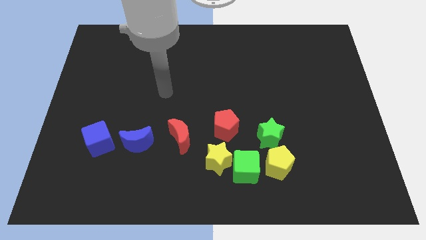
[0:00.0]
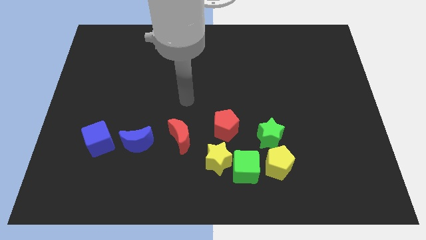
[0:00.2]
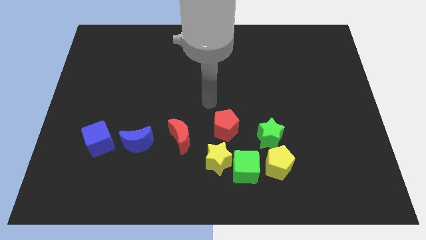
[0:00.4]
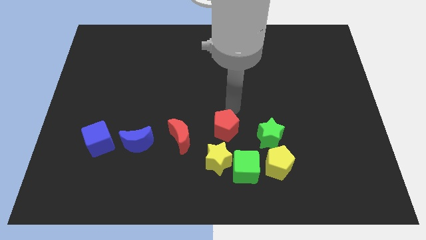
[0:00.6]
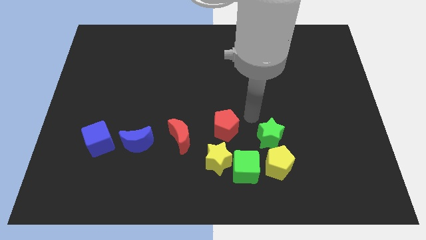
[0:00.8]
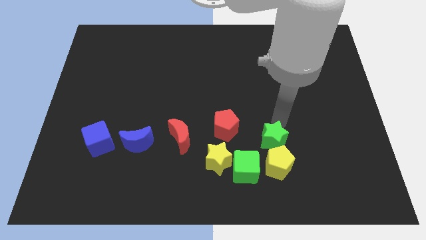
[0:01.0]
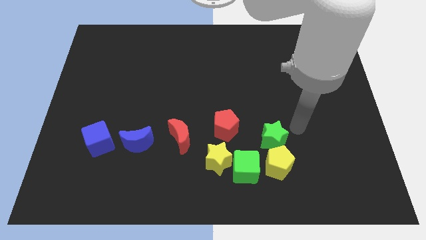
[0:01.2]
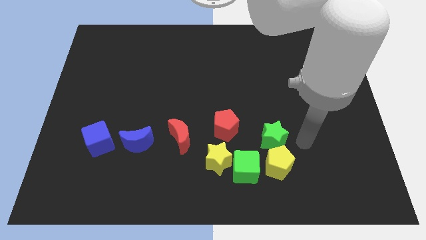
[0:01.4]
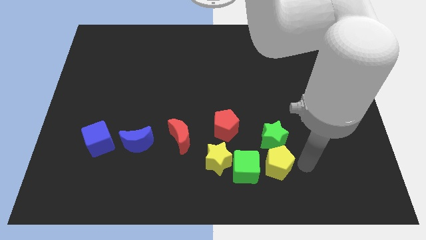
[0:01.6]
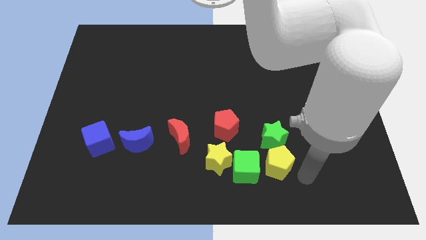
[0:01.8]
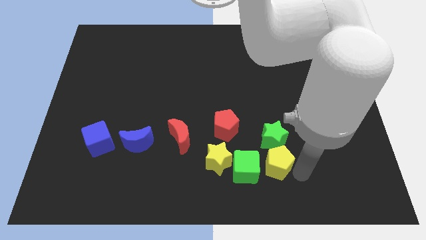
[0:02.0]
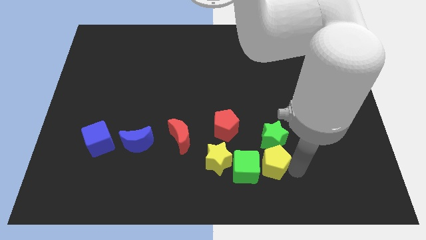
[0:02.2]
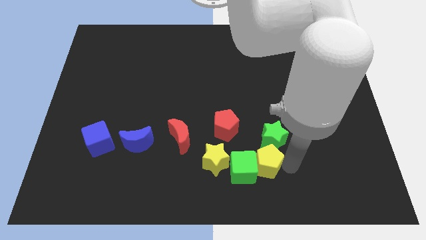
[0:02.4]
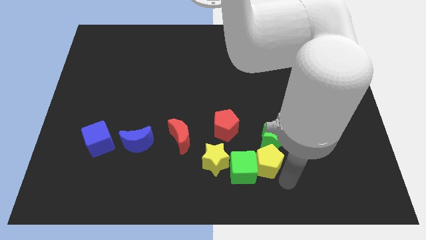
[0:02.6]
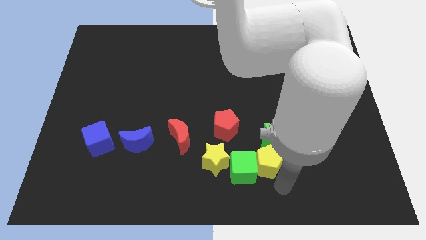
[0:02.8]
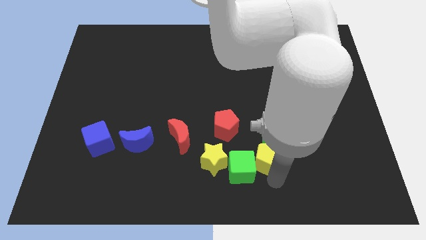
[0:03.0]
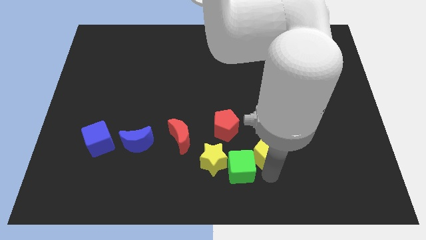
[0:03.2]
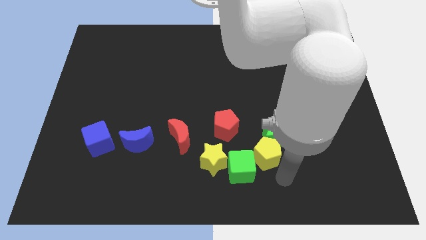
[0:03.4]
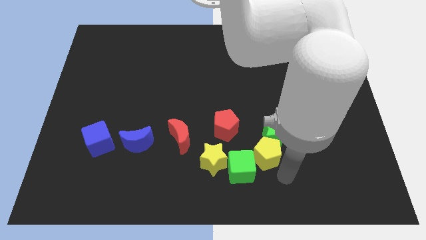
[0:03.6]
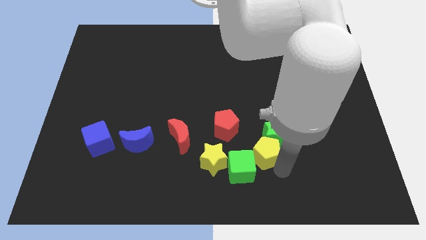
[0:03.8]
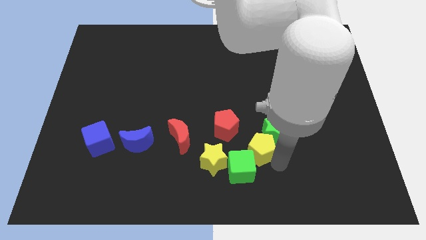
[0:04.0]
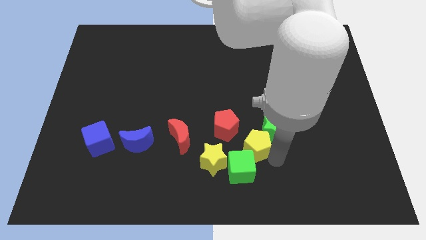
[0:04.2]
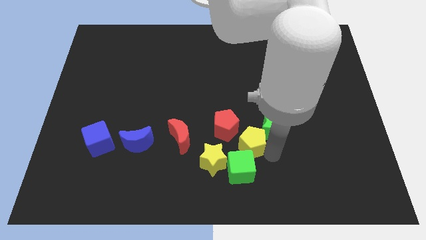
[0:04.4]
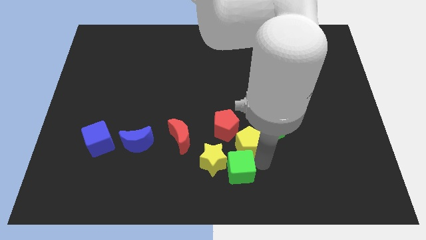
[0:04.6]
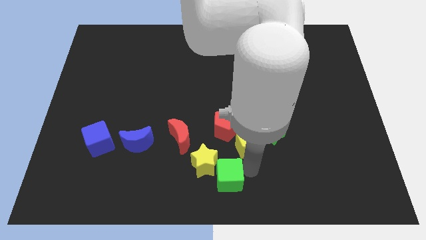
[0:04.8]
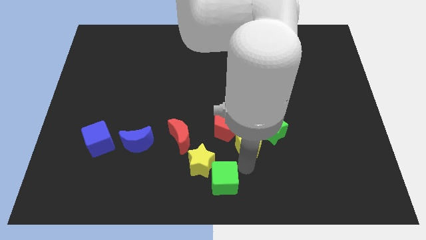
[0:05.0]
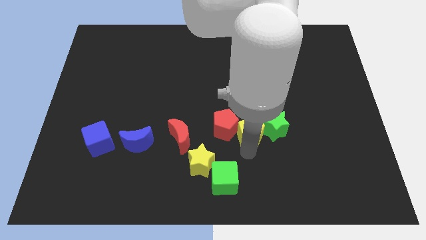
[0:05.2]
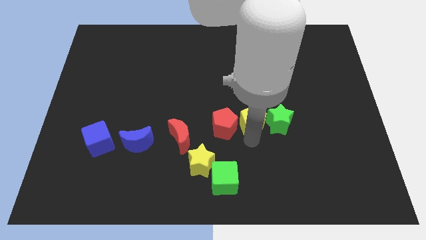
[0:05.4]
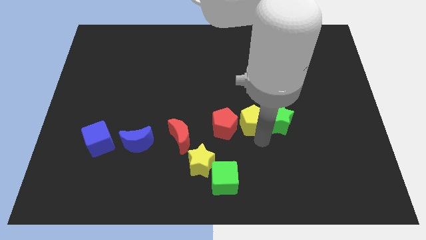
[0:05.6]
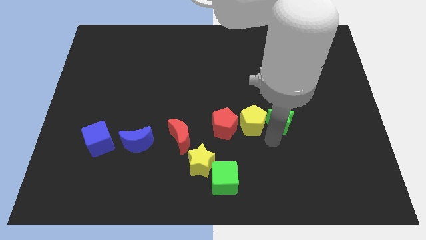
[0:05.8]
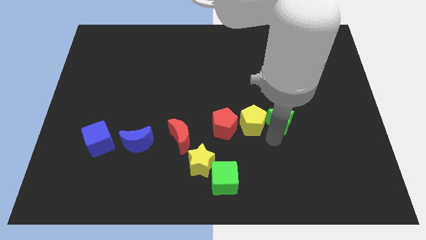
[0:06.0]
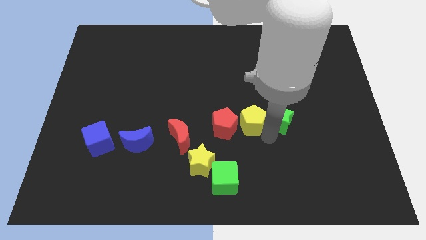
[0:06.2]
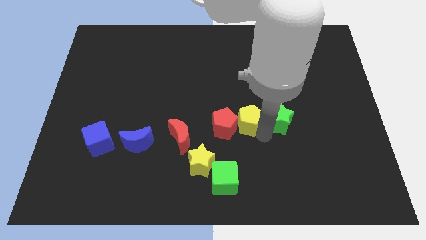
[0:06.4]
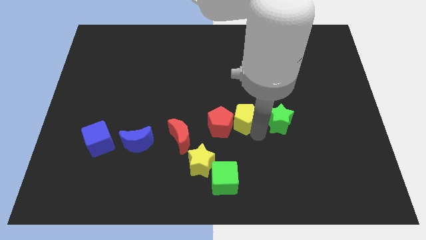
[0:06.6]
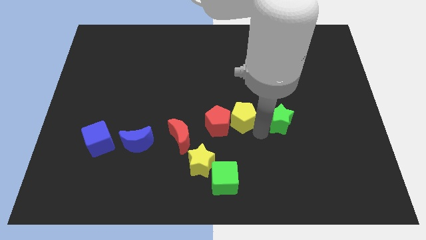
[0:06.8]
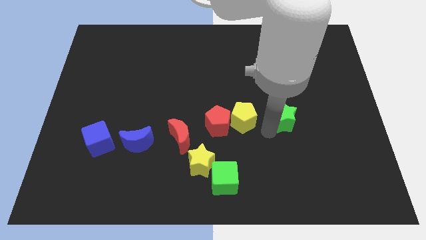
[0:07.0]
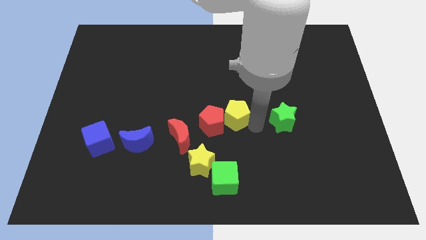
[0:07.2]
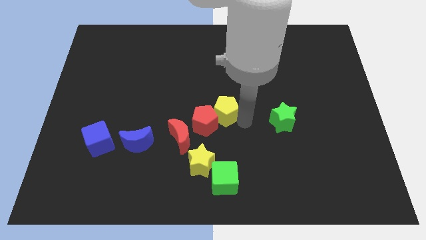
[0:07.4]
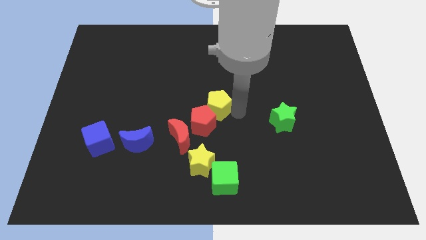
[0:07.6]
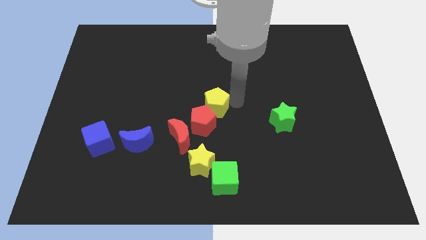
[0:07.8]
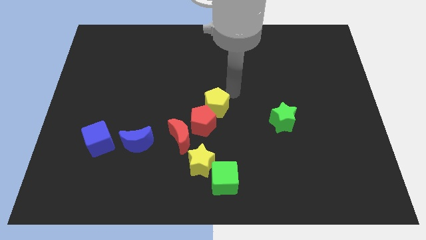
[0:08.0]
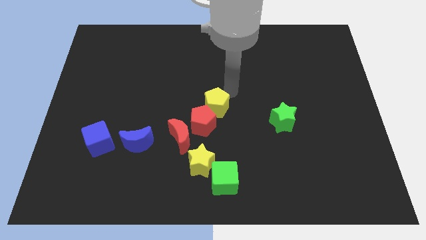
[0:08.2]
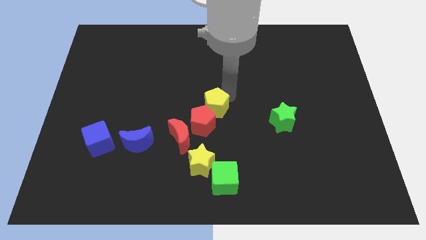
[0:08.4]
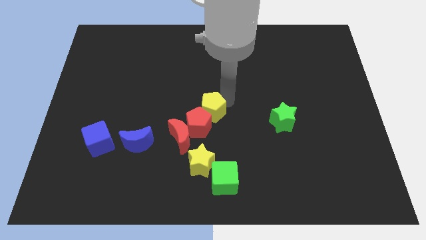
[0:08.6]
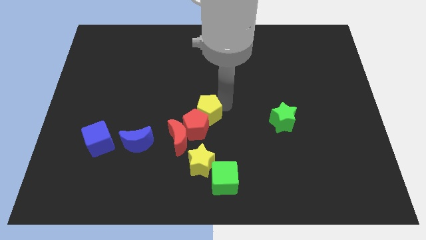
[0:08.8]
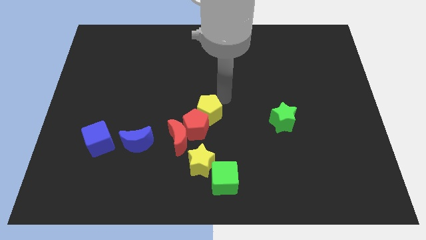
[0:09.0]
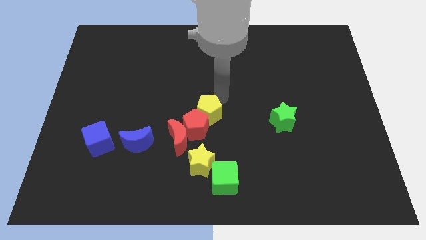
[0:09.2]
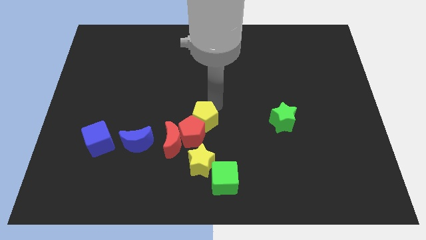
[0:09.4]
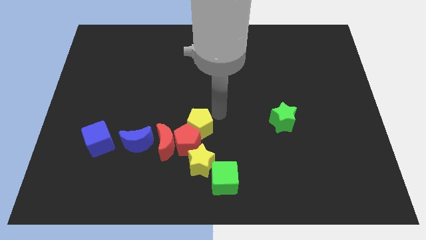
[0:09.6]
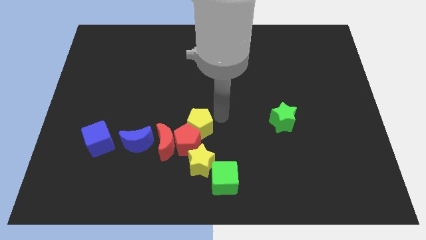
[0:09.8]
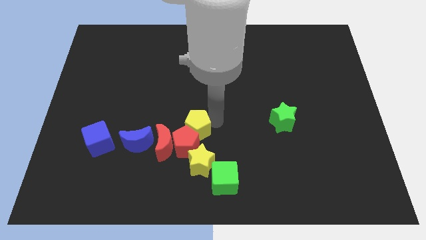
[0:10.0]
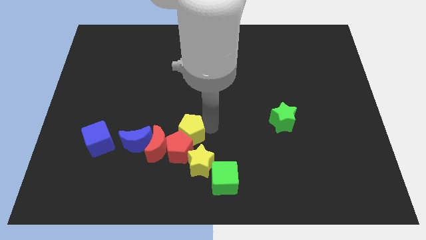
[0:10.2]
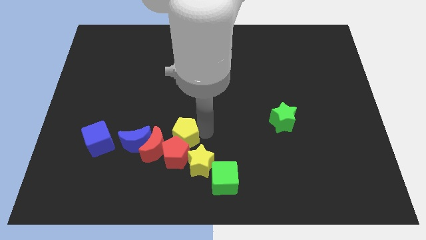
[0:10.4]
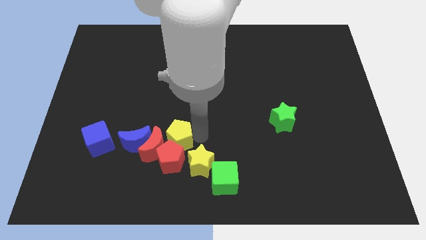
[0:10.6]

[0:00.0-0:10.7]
put the yellow pentagon close to the red moon

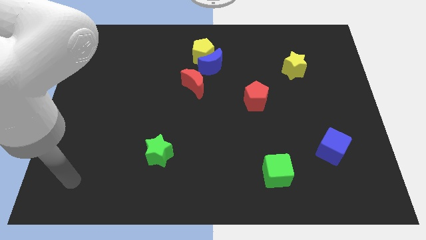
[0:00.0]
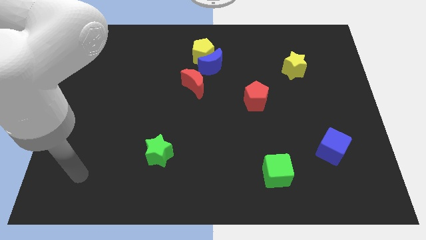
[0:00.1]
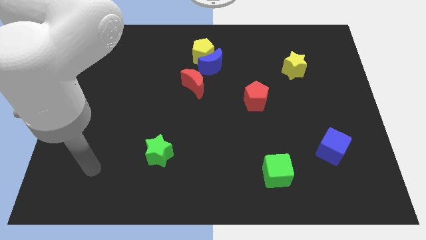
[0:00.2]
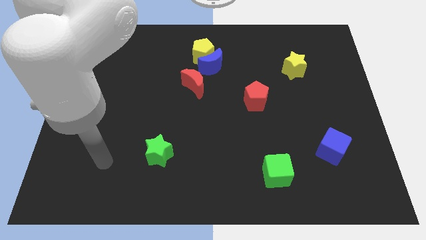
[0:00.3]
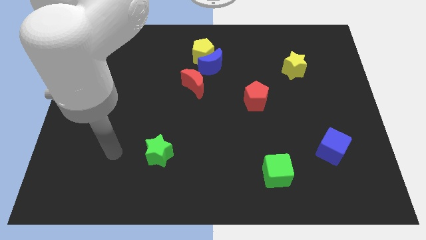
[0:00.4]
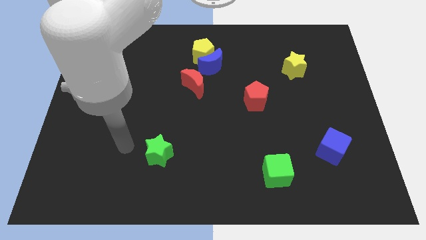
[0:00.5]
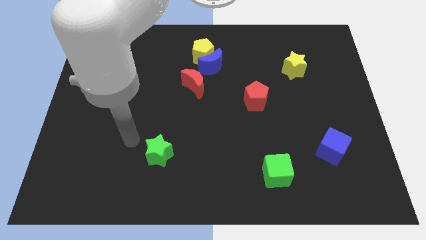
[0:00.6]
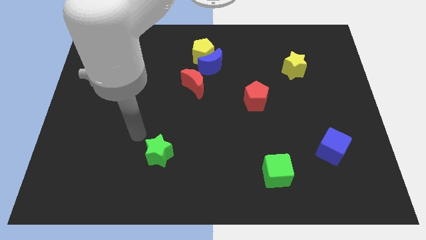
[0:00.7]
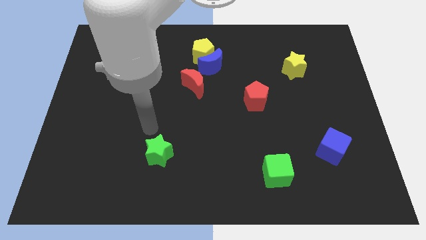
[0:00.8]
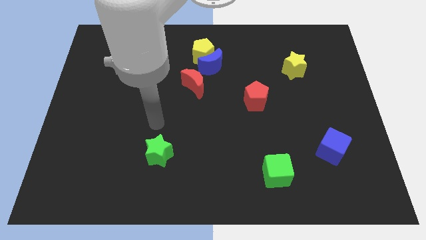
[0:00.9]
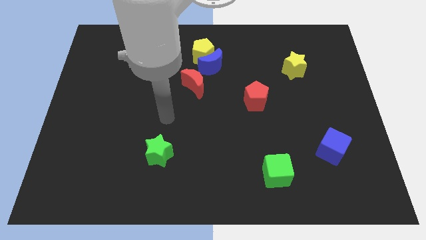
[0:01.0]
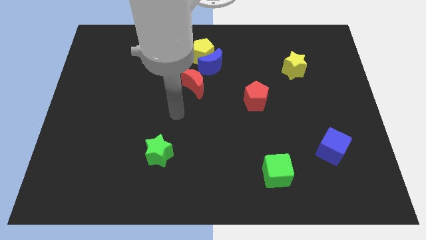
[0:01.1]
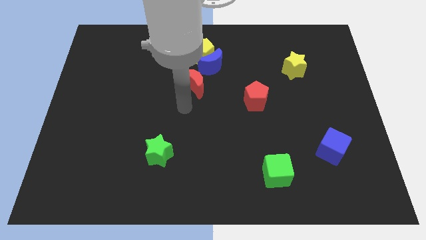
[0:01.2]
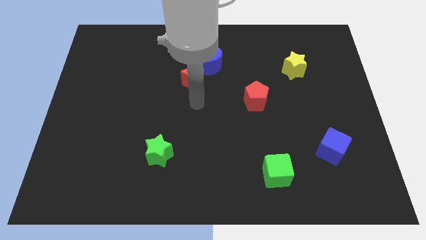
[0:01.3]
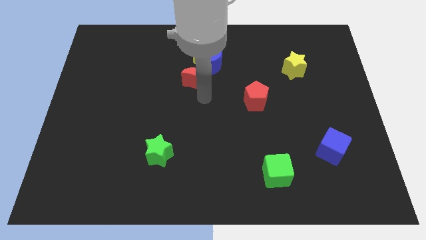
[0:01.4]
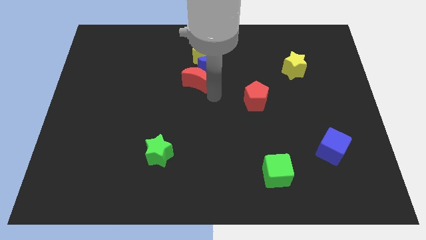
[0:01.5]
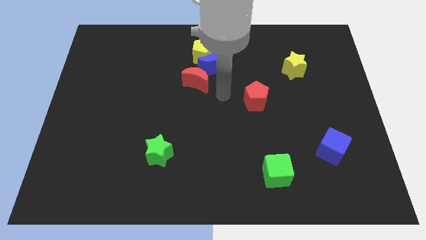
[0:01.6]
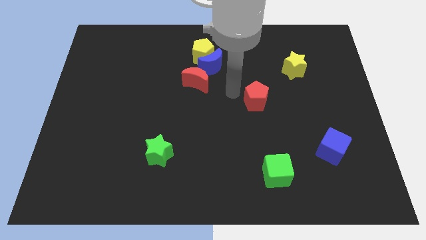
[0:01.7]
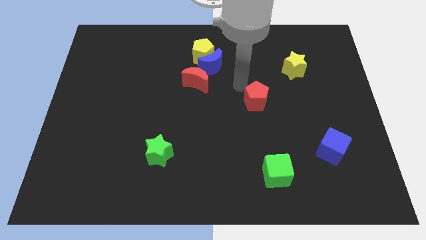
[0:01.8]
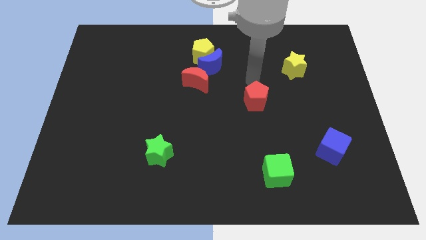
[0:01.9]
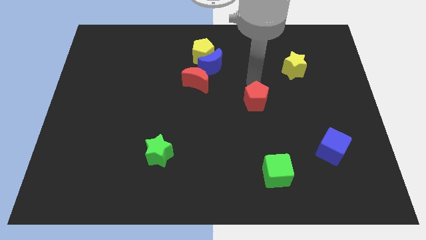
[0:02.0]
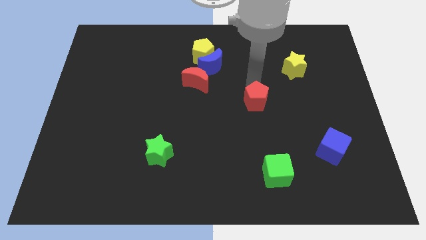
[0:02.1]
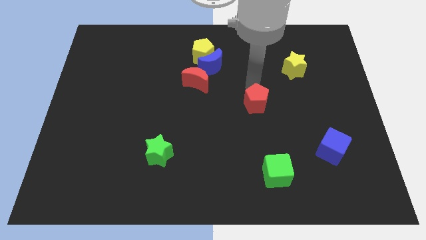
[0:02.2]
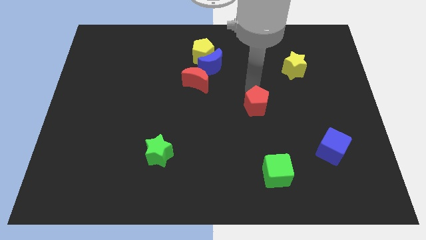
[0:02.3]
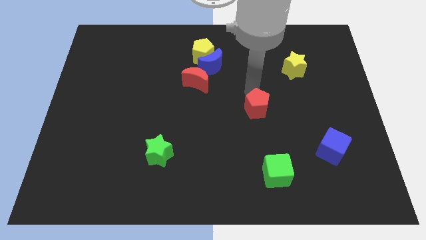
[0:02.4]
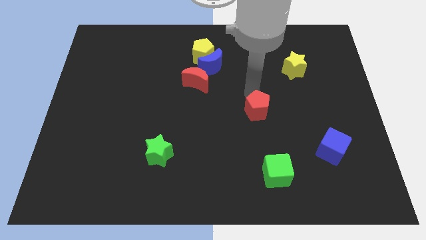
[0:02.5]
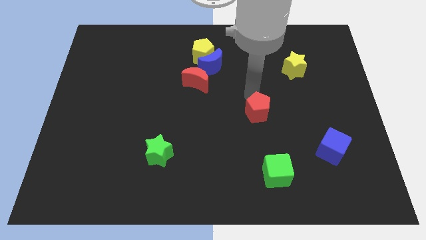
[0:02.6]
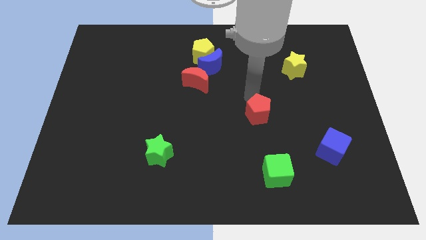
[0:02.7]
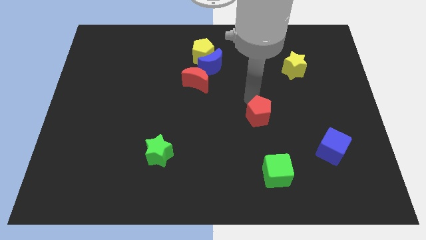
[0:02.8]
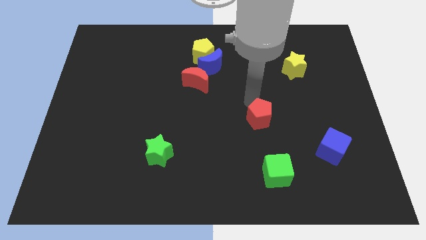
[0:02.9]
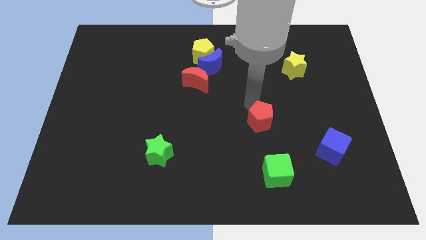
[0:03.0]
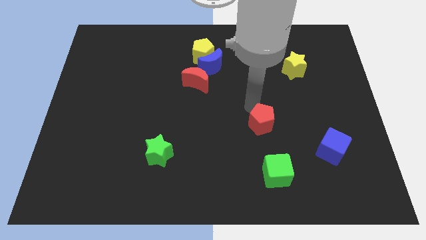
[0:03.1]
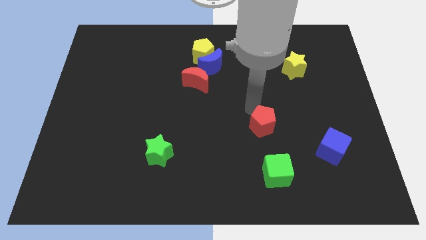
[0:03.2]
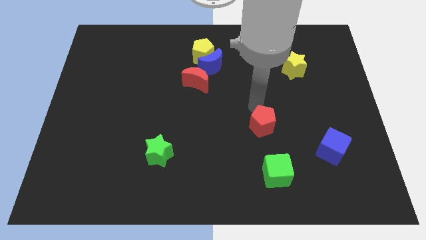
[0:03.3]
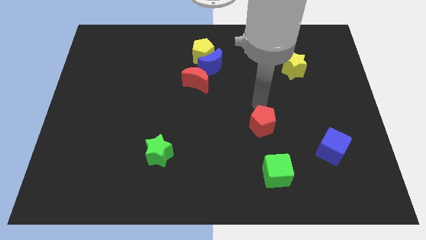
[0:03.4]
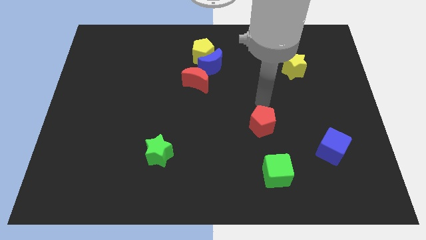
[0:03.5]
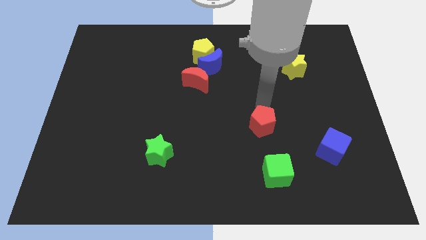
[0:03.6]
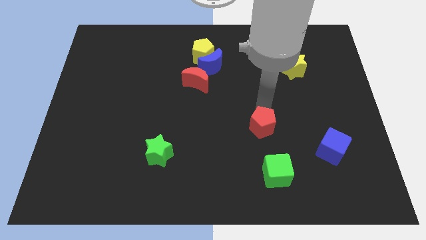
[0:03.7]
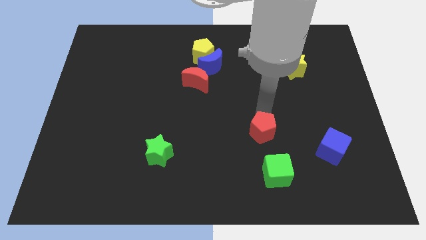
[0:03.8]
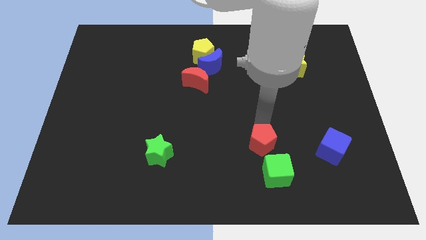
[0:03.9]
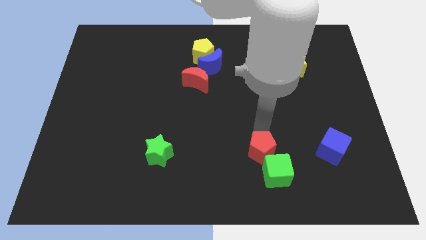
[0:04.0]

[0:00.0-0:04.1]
slide the red pentagon close to the green cube
